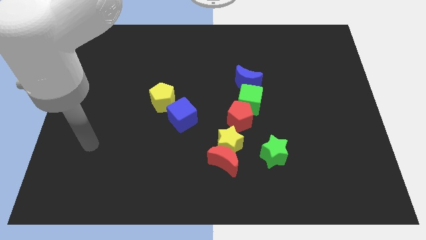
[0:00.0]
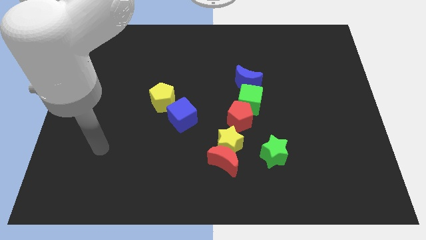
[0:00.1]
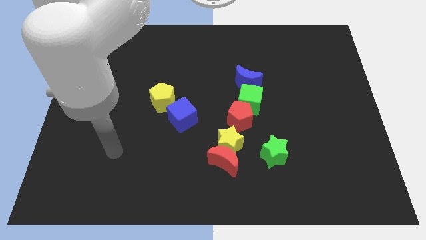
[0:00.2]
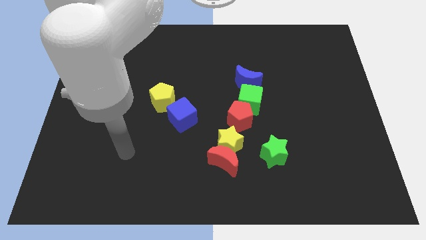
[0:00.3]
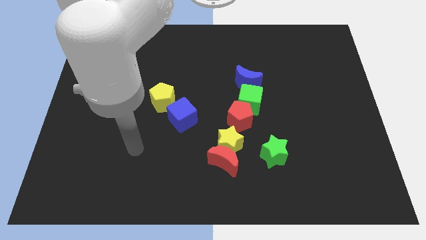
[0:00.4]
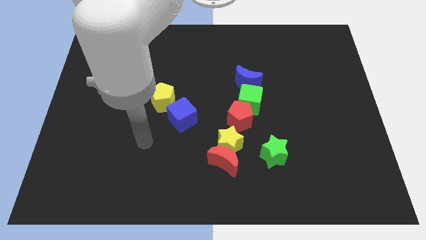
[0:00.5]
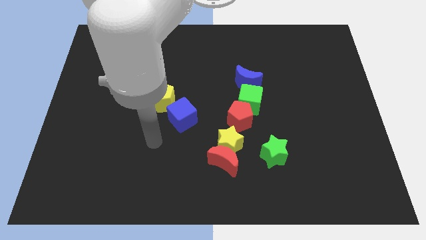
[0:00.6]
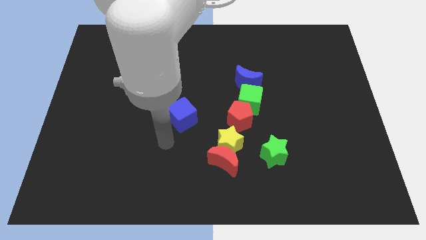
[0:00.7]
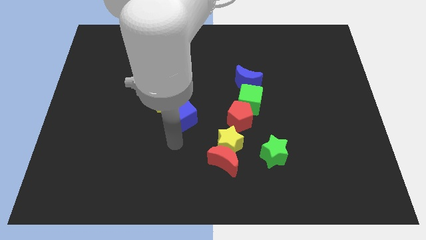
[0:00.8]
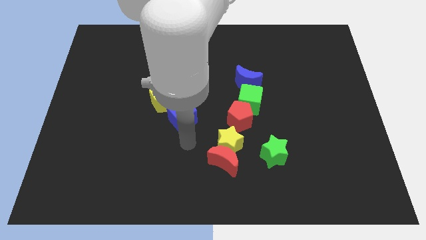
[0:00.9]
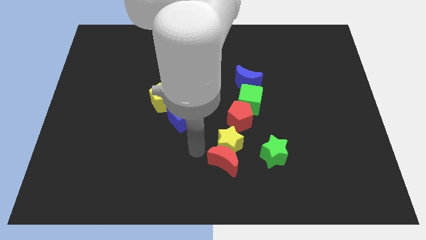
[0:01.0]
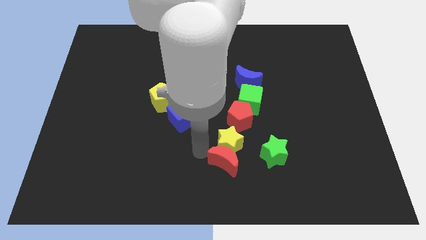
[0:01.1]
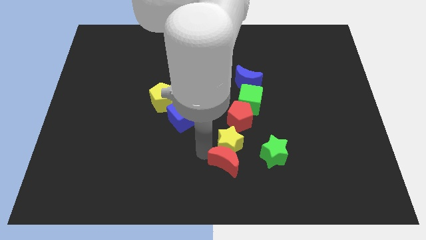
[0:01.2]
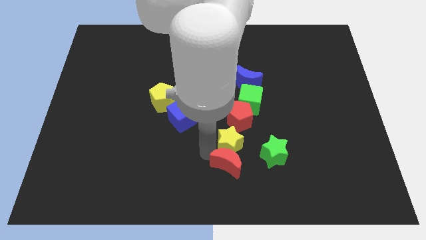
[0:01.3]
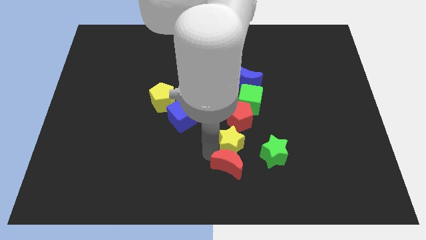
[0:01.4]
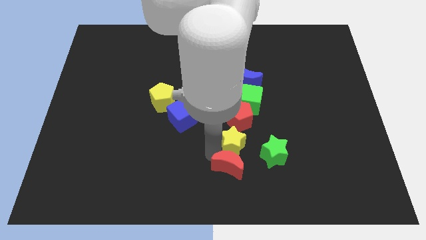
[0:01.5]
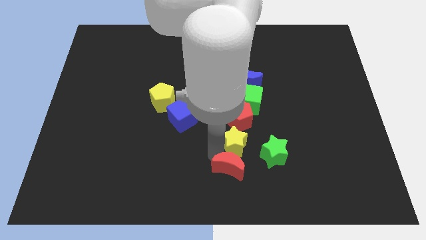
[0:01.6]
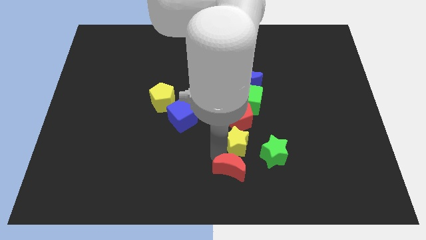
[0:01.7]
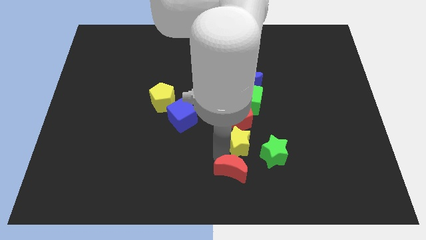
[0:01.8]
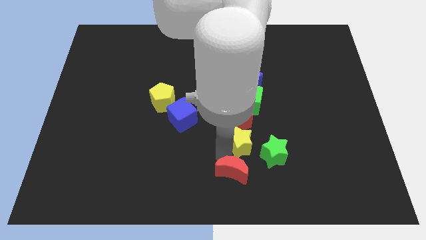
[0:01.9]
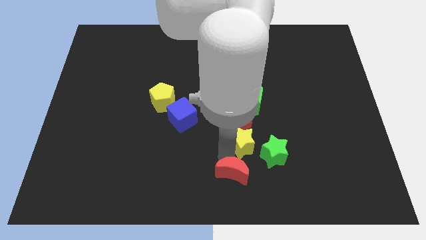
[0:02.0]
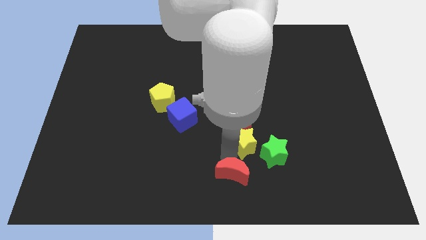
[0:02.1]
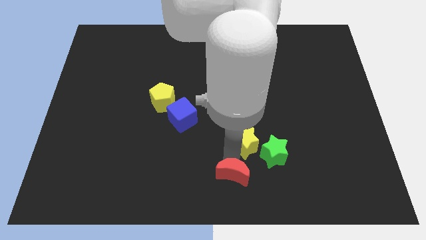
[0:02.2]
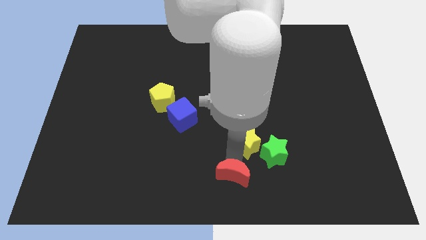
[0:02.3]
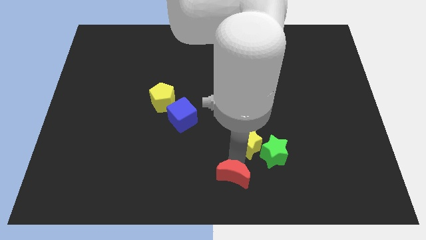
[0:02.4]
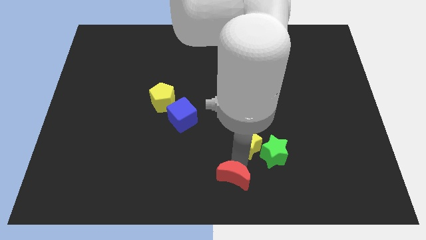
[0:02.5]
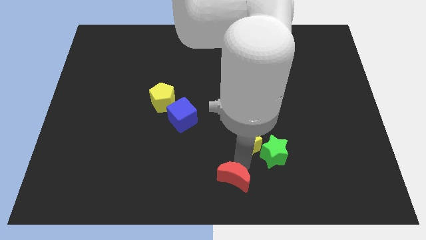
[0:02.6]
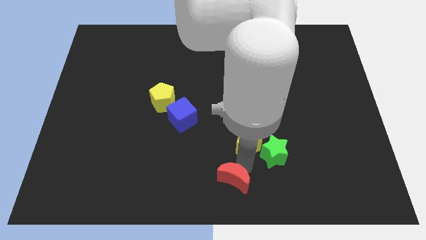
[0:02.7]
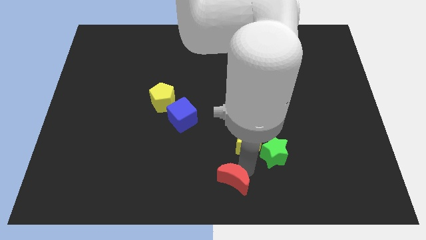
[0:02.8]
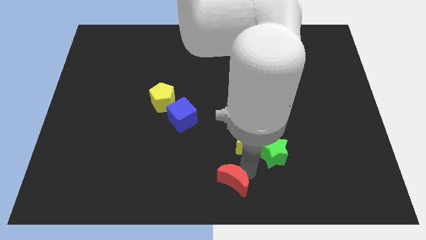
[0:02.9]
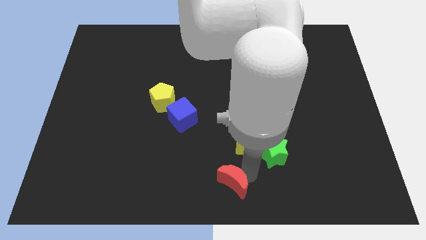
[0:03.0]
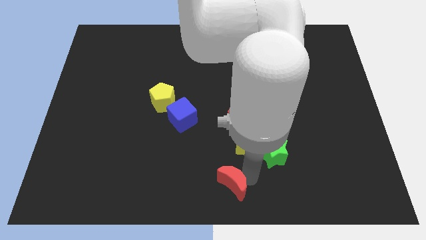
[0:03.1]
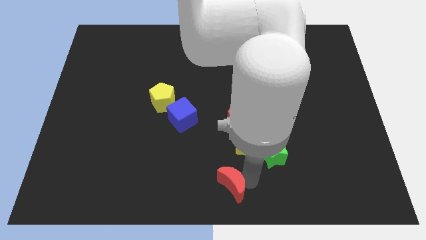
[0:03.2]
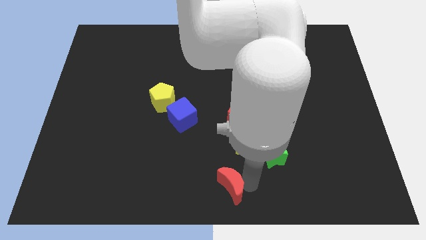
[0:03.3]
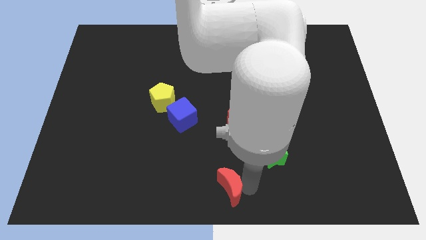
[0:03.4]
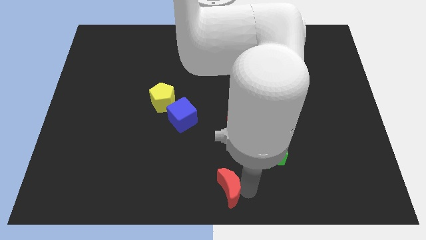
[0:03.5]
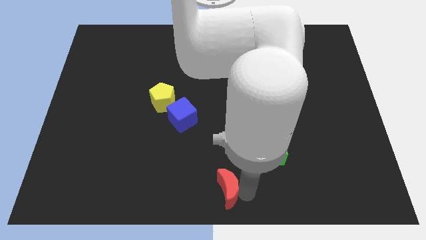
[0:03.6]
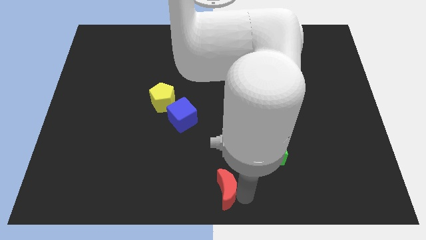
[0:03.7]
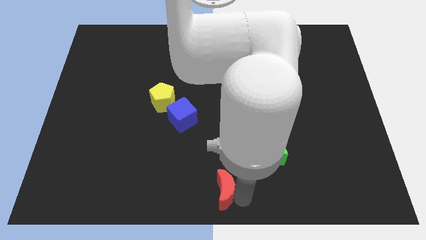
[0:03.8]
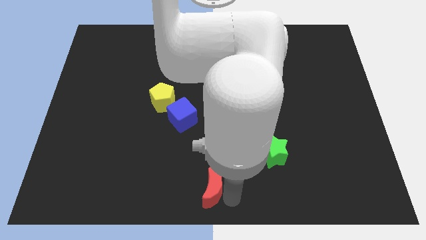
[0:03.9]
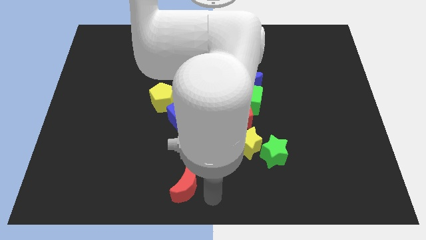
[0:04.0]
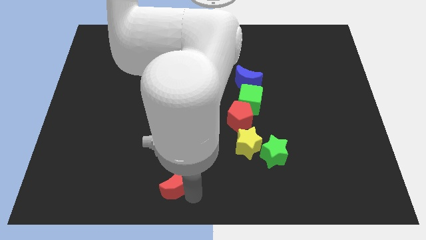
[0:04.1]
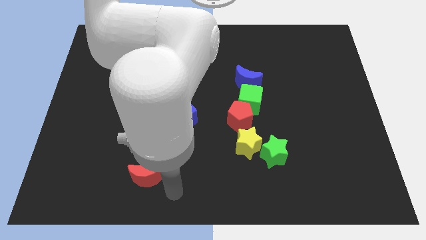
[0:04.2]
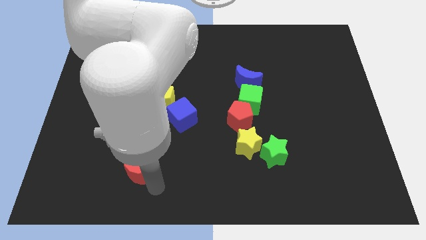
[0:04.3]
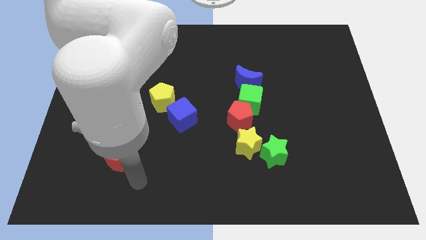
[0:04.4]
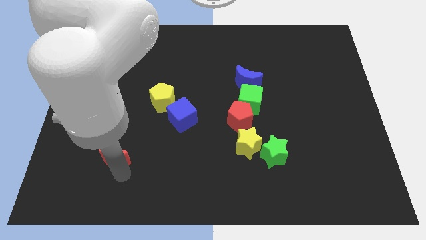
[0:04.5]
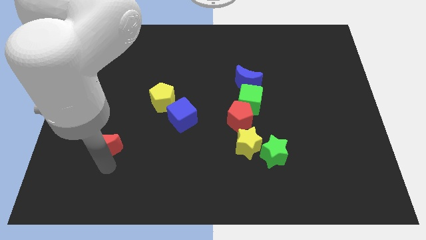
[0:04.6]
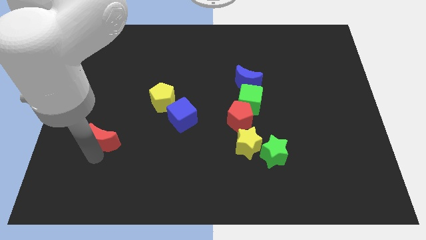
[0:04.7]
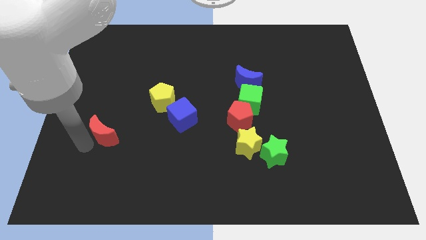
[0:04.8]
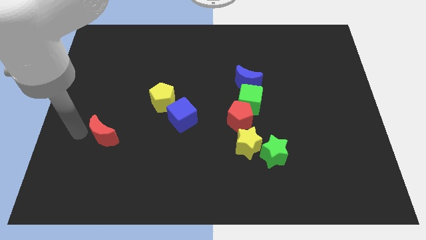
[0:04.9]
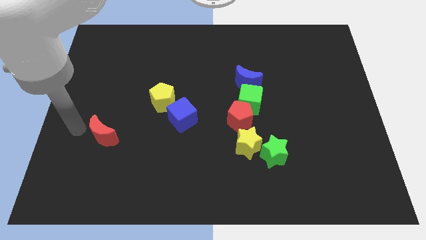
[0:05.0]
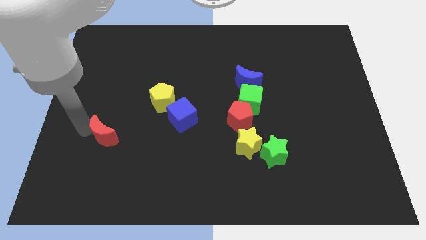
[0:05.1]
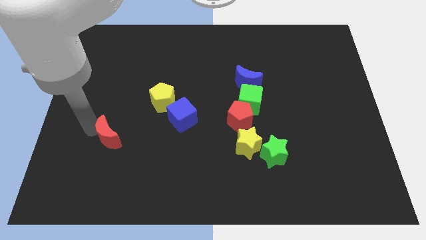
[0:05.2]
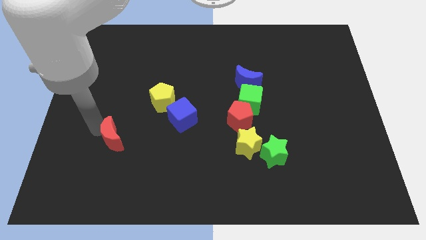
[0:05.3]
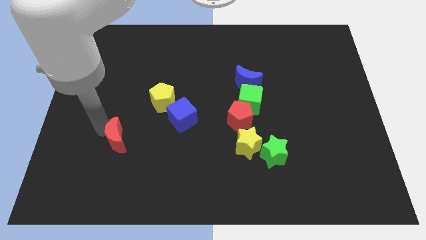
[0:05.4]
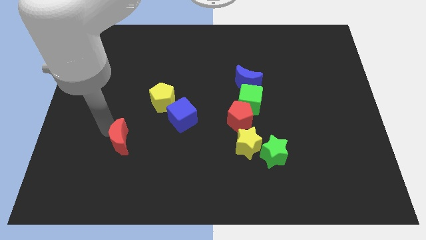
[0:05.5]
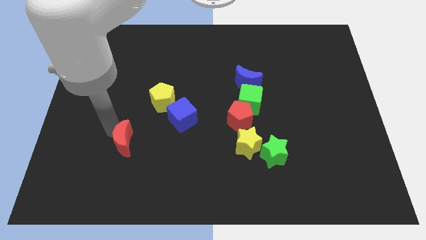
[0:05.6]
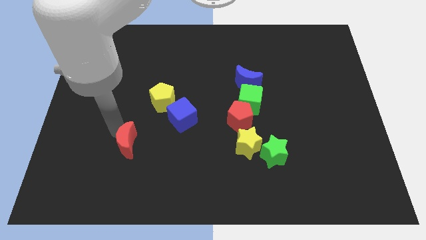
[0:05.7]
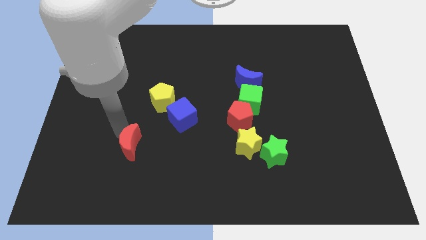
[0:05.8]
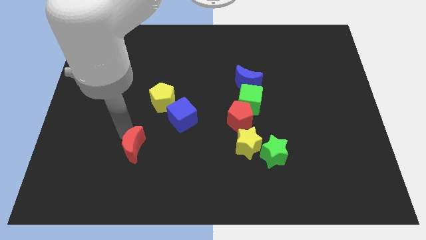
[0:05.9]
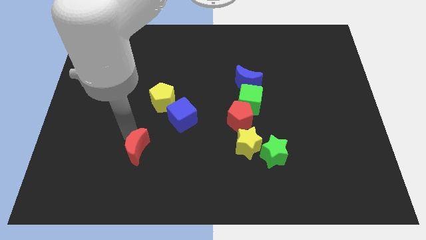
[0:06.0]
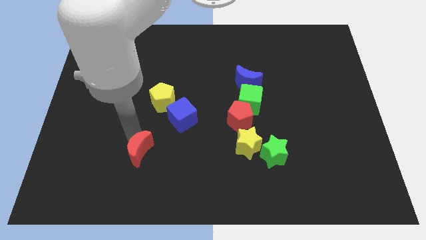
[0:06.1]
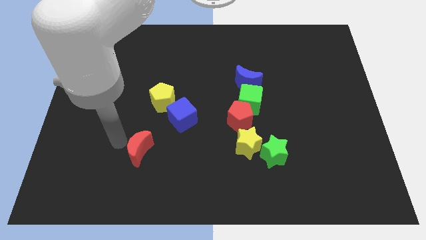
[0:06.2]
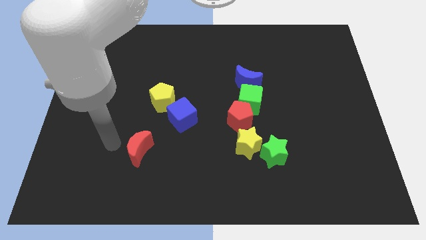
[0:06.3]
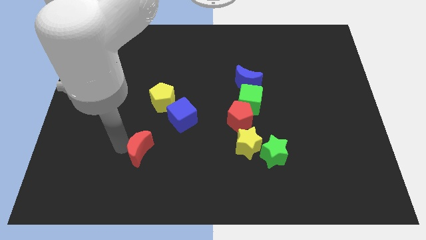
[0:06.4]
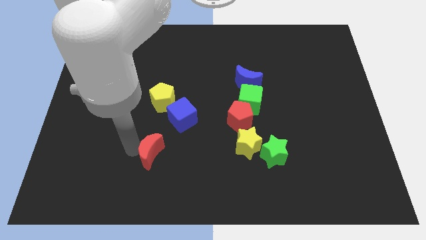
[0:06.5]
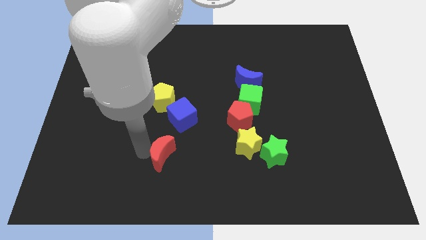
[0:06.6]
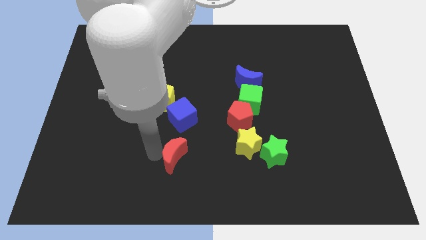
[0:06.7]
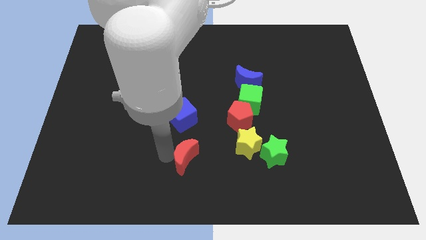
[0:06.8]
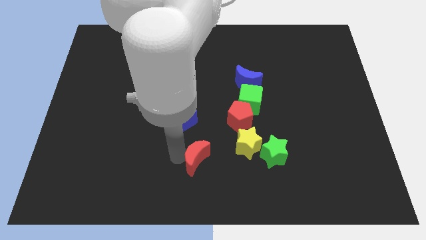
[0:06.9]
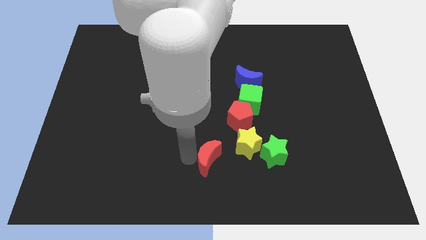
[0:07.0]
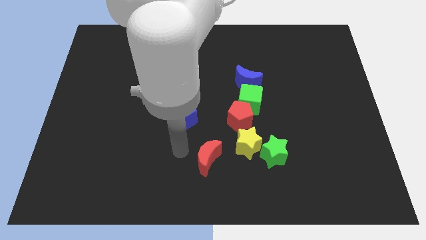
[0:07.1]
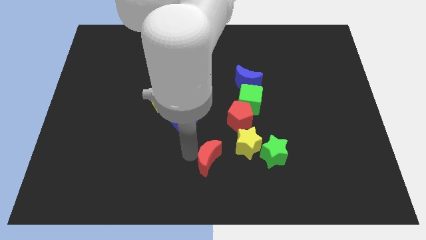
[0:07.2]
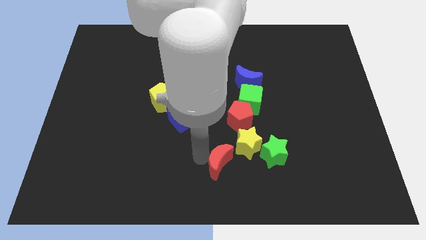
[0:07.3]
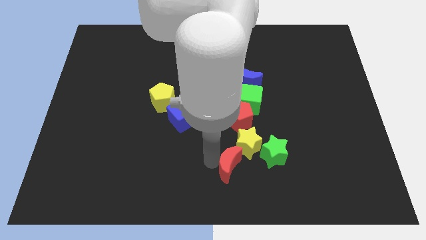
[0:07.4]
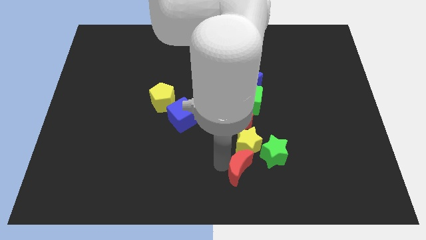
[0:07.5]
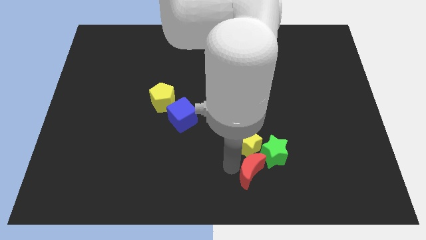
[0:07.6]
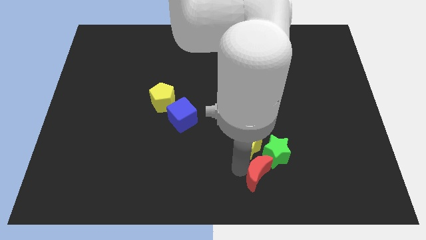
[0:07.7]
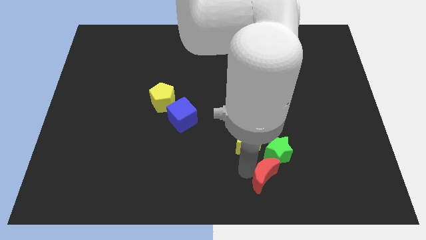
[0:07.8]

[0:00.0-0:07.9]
push the red moon a little bit right
